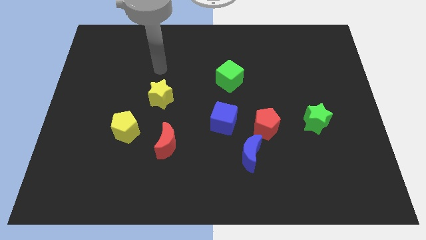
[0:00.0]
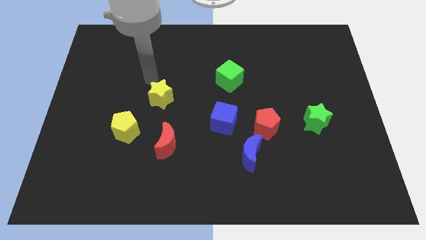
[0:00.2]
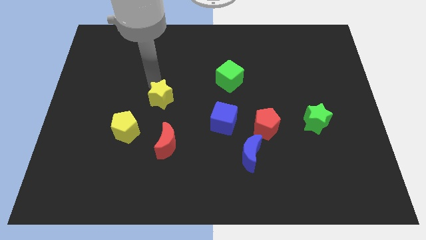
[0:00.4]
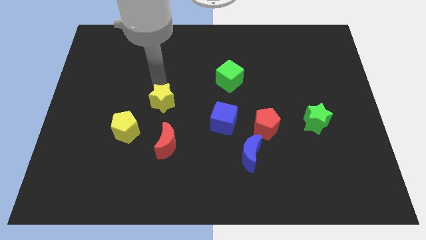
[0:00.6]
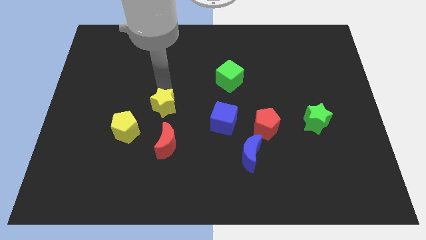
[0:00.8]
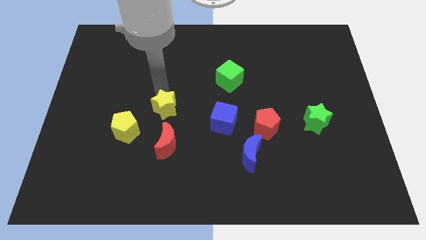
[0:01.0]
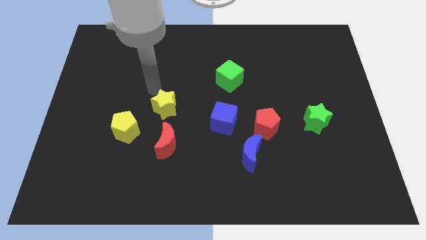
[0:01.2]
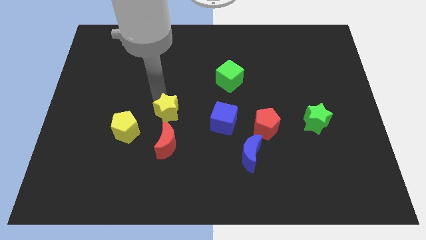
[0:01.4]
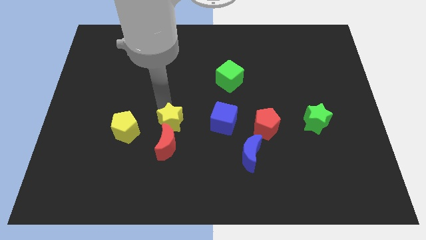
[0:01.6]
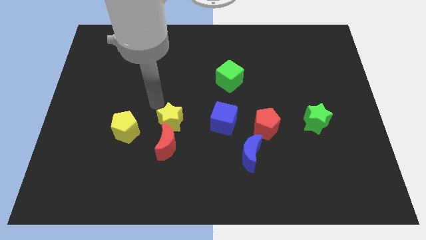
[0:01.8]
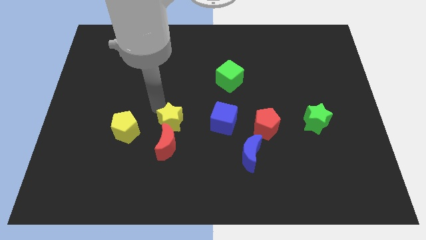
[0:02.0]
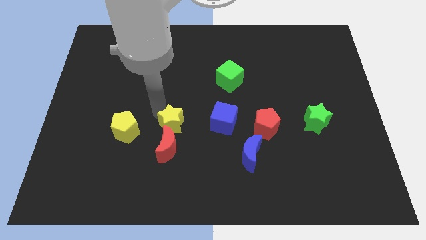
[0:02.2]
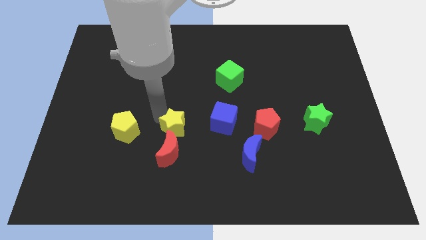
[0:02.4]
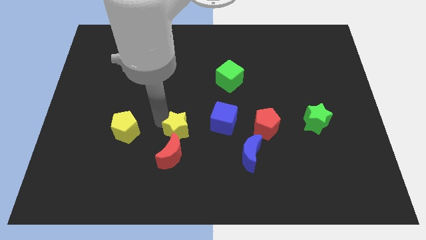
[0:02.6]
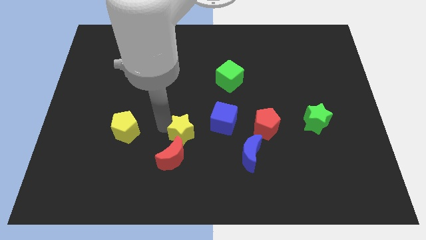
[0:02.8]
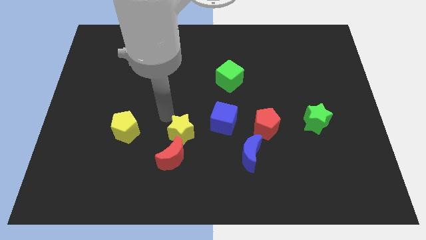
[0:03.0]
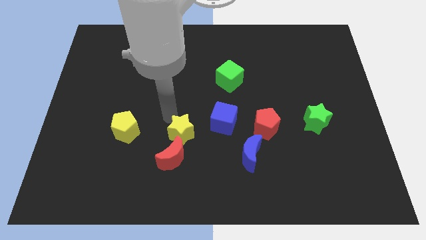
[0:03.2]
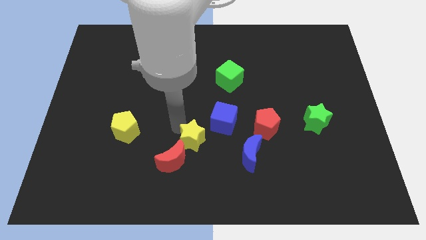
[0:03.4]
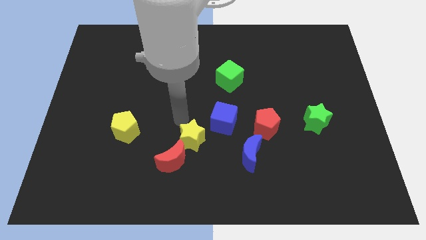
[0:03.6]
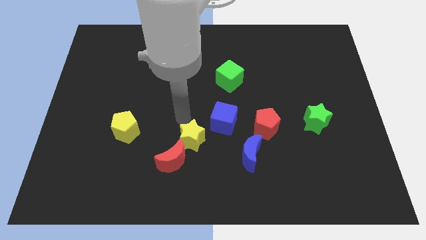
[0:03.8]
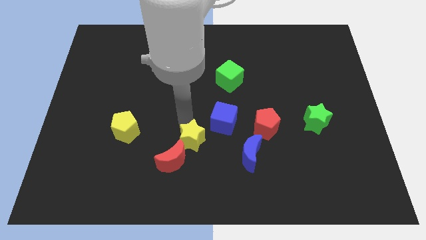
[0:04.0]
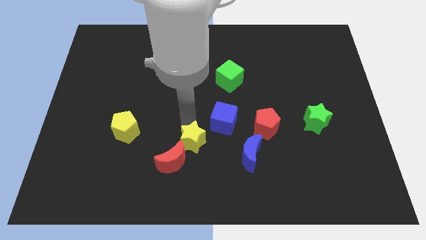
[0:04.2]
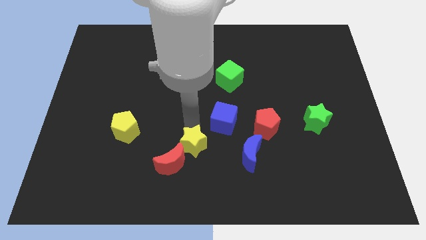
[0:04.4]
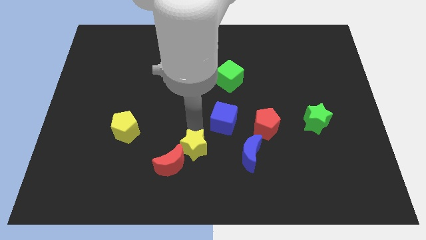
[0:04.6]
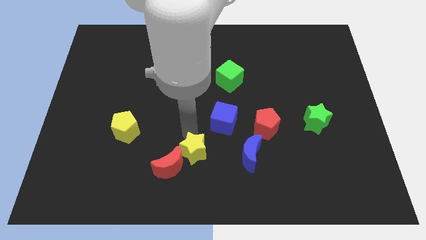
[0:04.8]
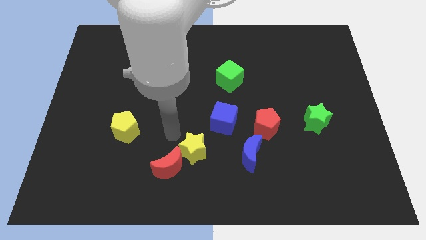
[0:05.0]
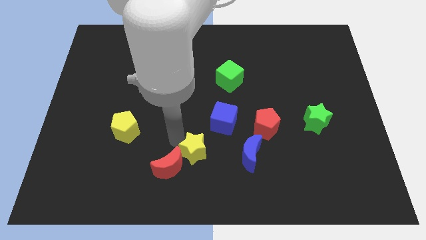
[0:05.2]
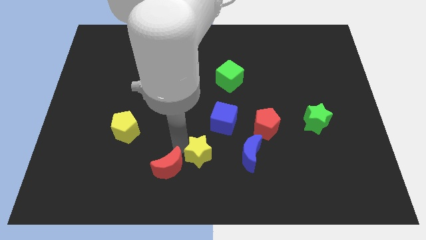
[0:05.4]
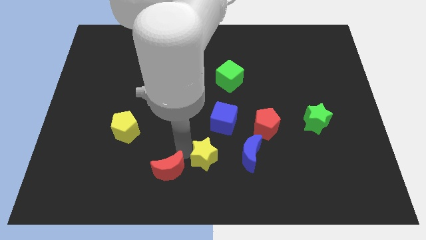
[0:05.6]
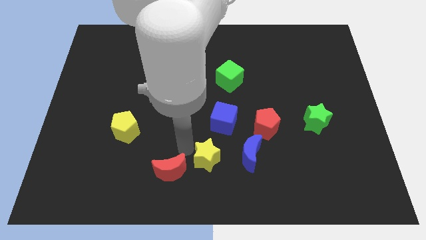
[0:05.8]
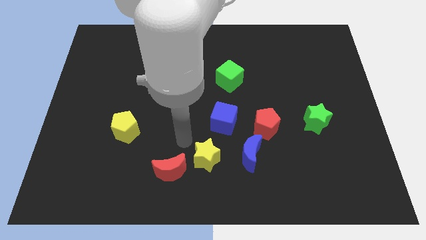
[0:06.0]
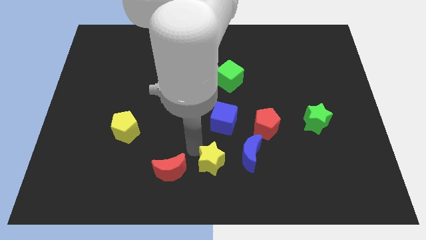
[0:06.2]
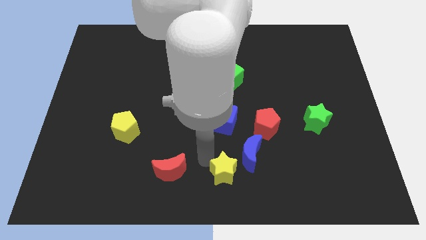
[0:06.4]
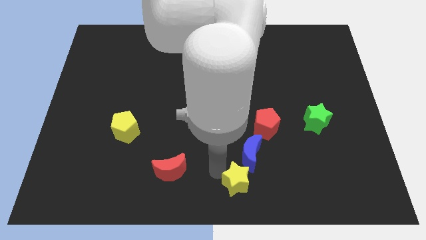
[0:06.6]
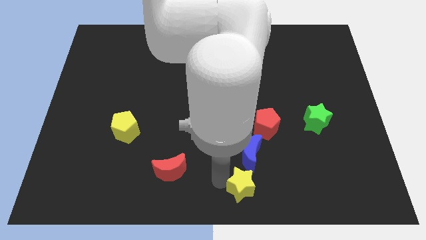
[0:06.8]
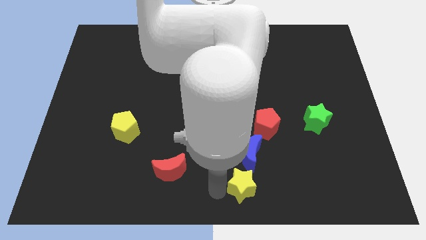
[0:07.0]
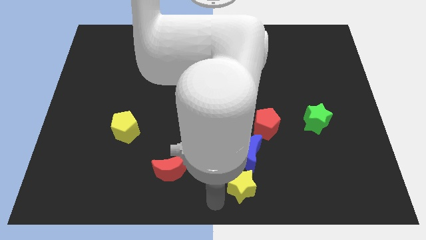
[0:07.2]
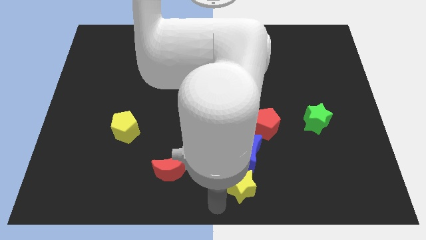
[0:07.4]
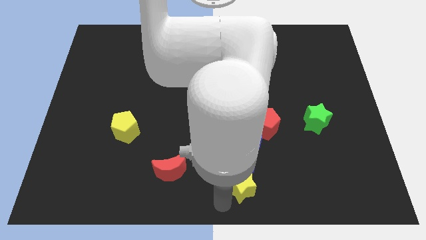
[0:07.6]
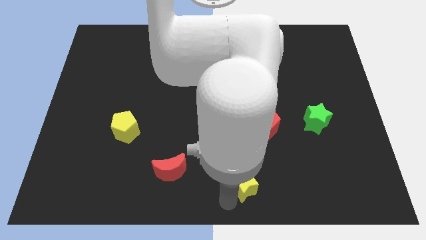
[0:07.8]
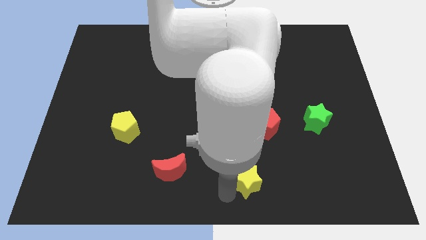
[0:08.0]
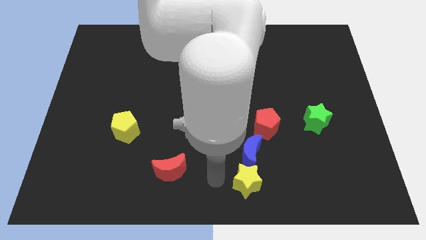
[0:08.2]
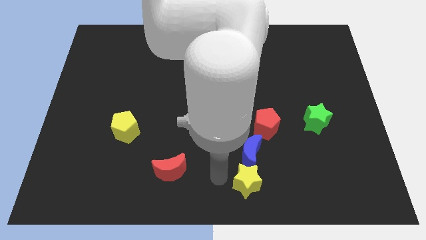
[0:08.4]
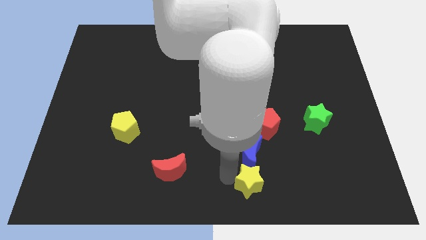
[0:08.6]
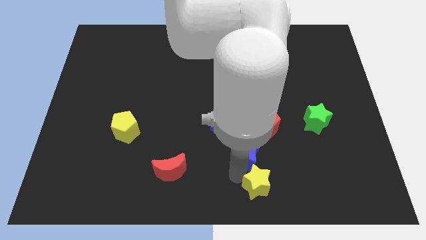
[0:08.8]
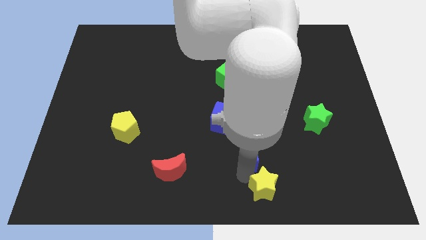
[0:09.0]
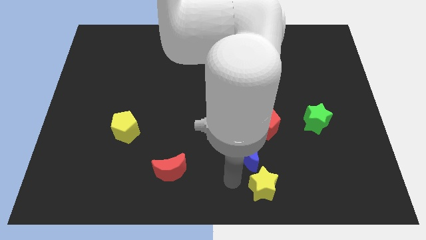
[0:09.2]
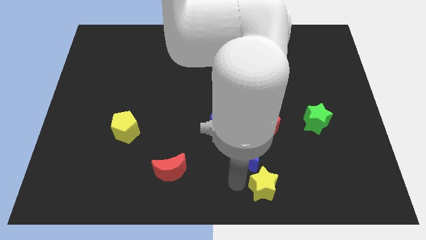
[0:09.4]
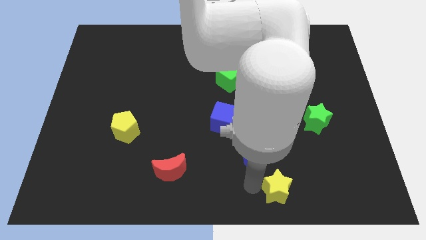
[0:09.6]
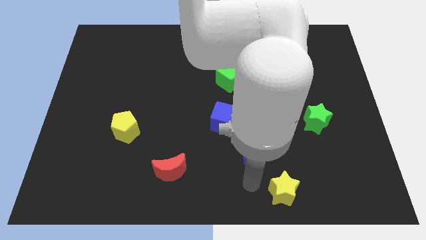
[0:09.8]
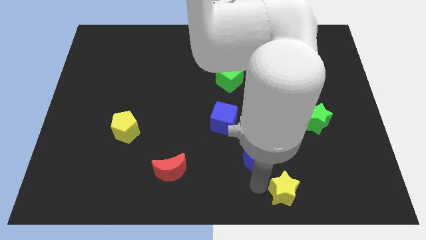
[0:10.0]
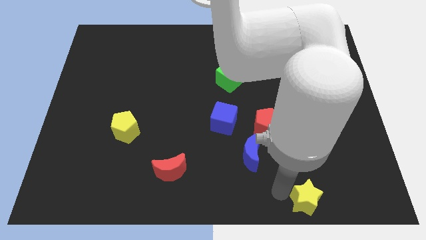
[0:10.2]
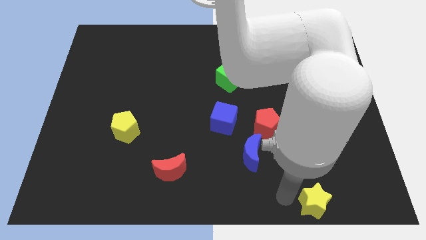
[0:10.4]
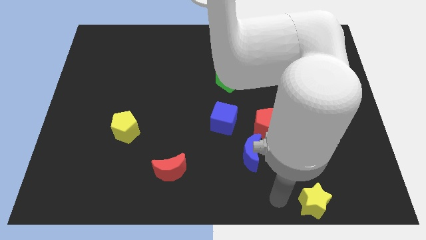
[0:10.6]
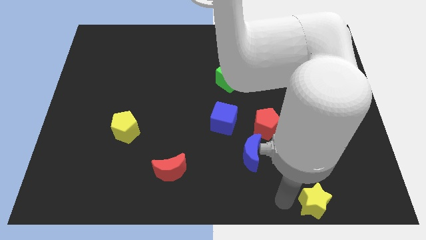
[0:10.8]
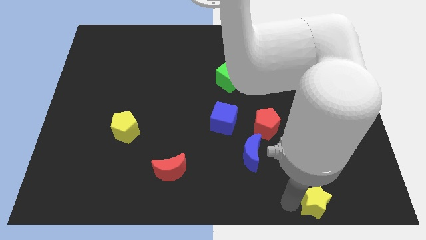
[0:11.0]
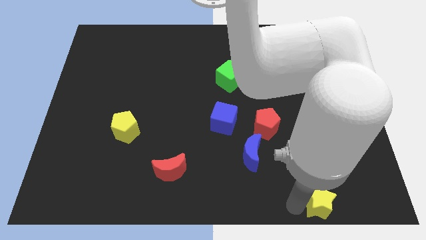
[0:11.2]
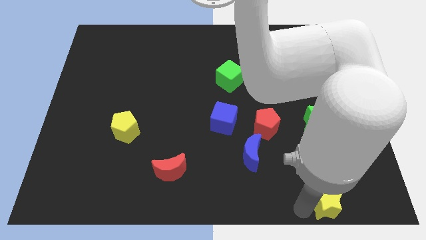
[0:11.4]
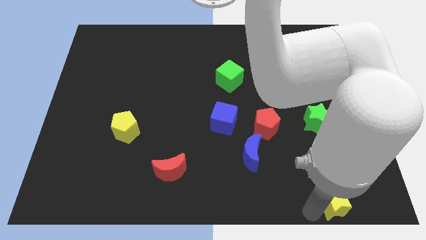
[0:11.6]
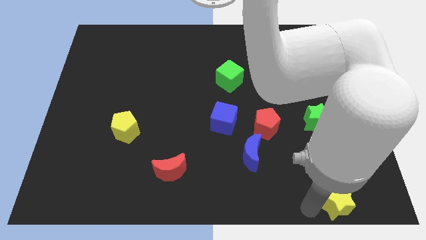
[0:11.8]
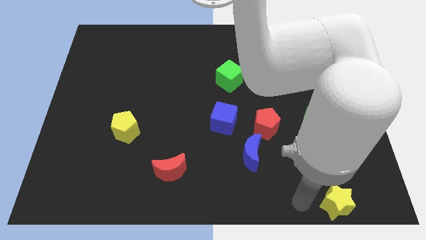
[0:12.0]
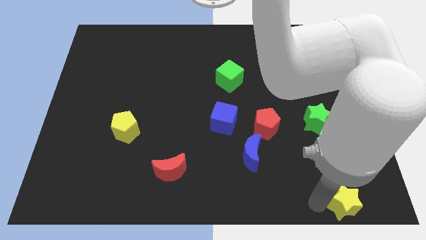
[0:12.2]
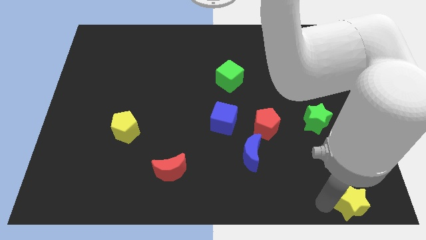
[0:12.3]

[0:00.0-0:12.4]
push the yellow star to the bottom right corner
